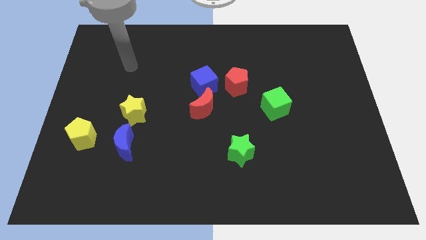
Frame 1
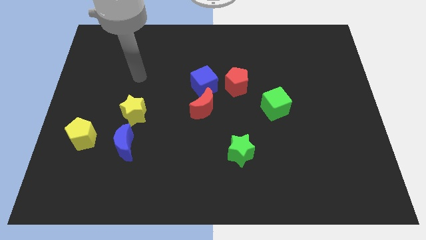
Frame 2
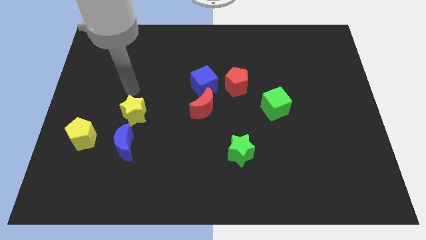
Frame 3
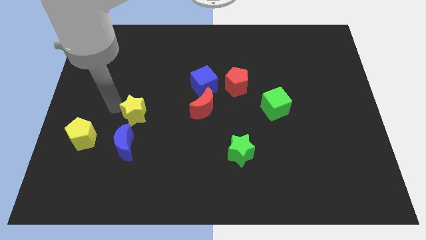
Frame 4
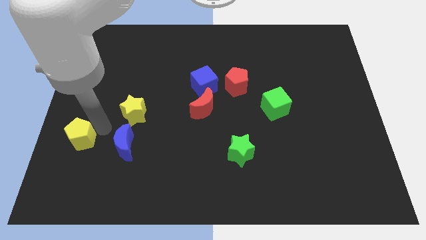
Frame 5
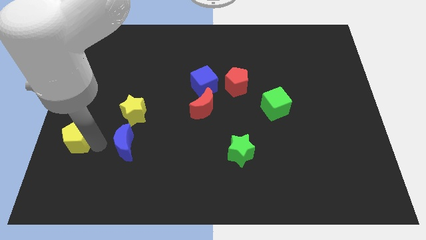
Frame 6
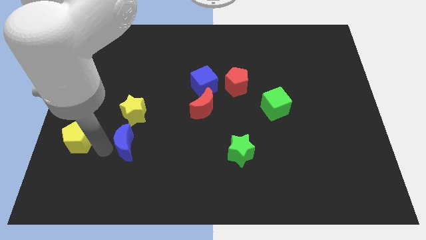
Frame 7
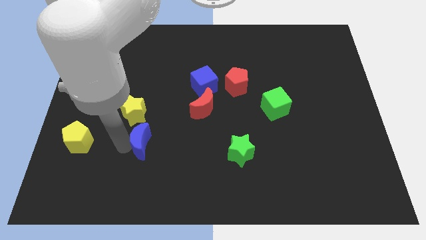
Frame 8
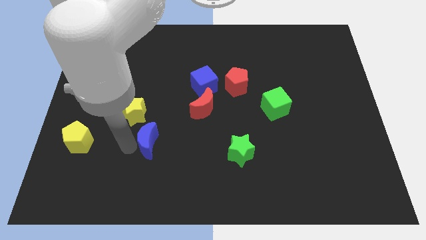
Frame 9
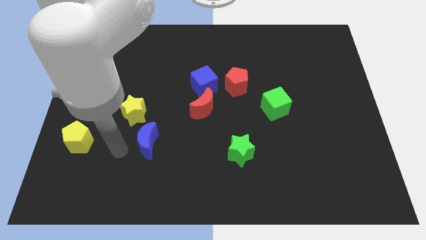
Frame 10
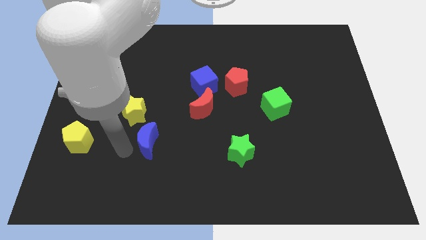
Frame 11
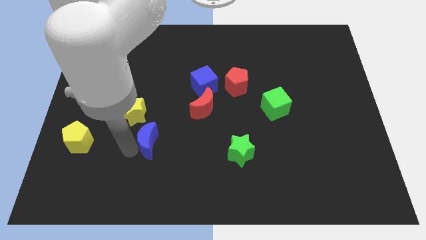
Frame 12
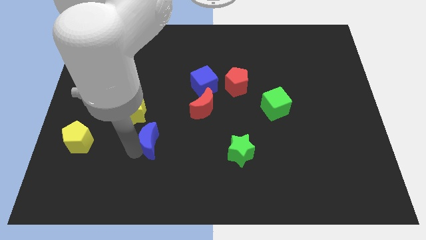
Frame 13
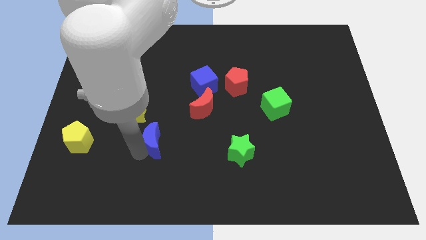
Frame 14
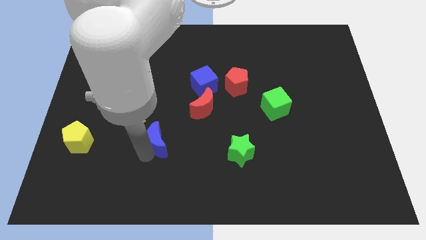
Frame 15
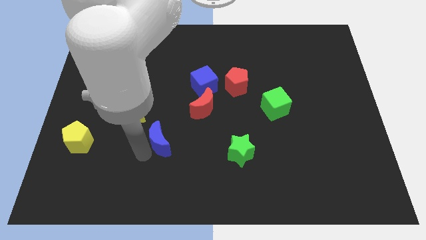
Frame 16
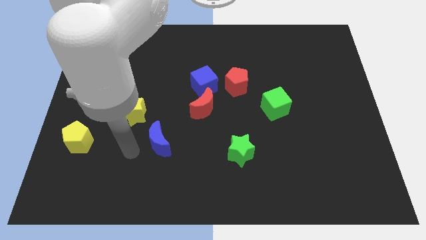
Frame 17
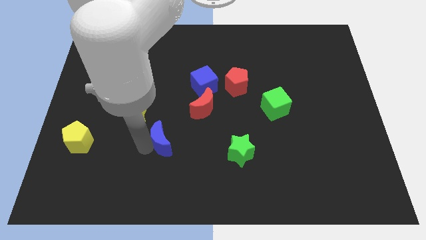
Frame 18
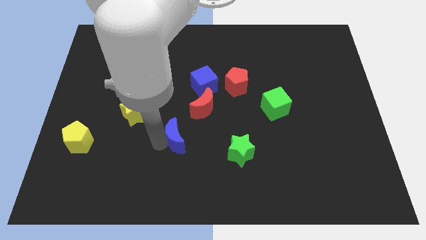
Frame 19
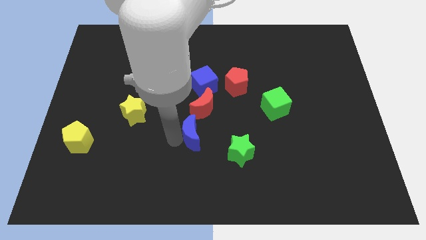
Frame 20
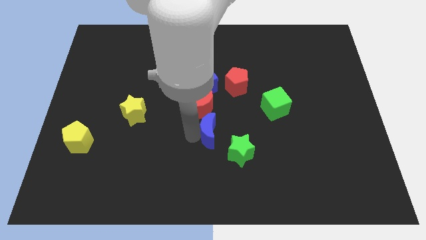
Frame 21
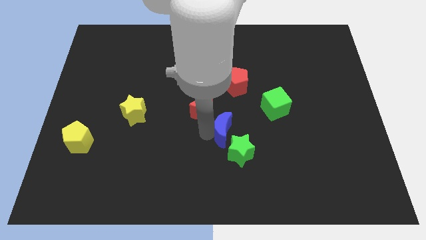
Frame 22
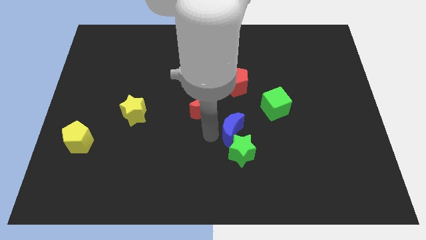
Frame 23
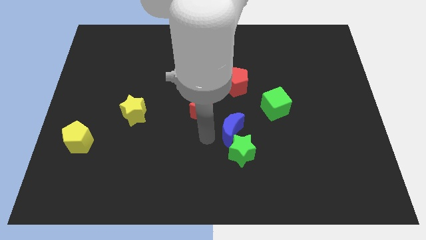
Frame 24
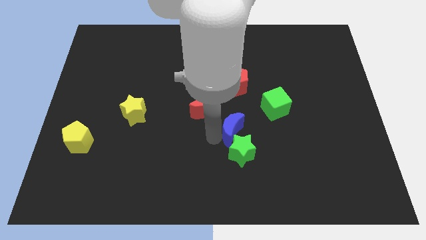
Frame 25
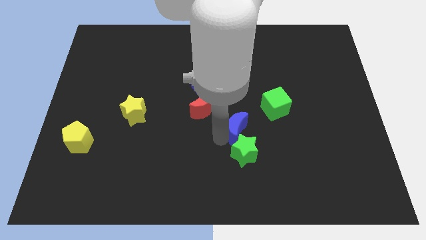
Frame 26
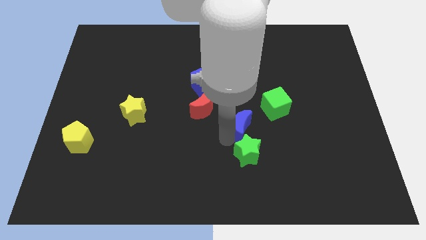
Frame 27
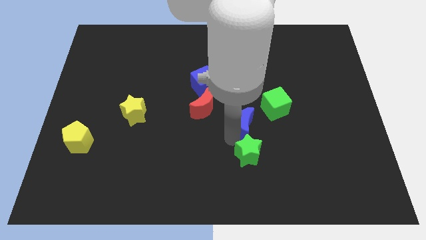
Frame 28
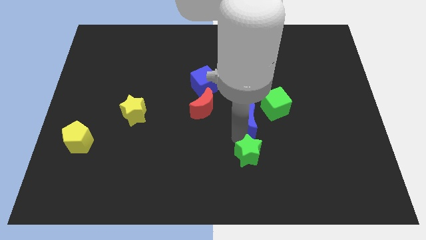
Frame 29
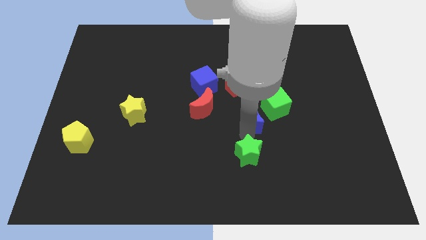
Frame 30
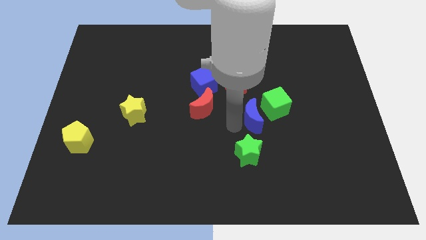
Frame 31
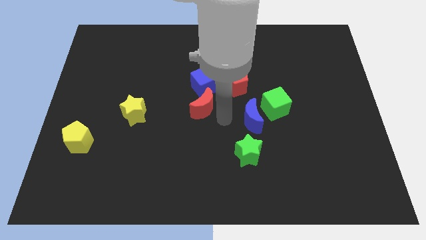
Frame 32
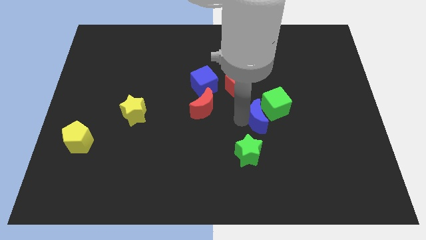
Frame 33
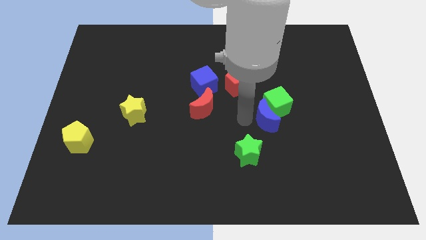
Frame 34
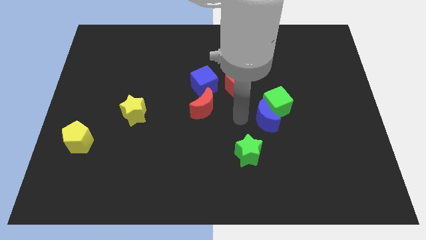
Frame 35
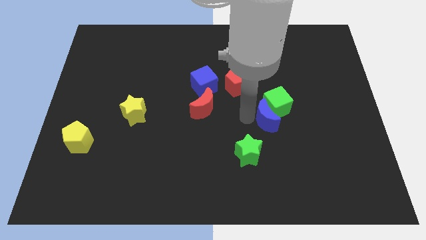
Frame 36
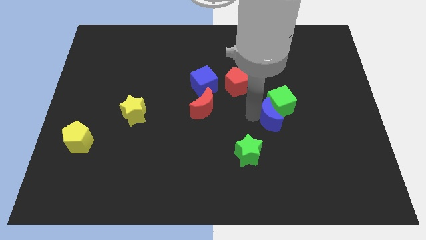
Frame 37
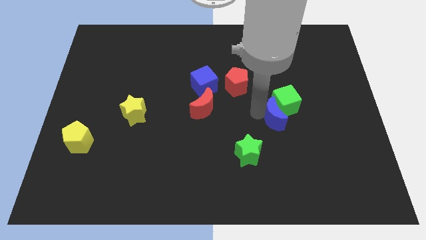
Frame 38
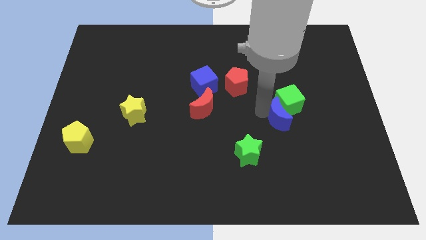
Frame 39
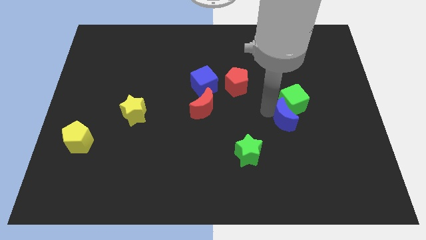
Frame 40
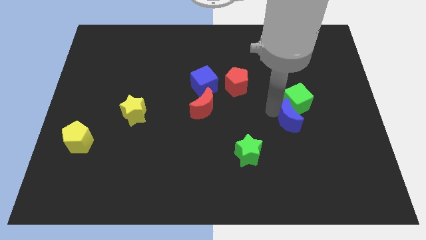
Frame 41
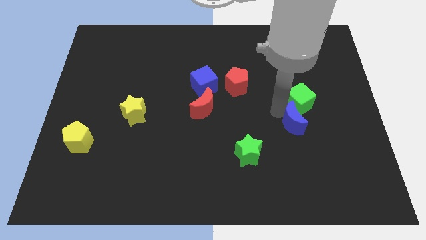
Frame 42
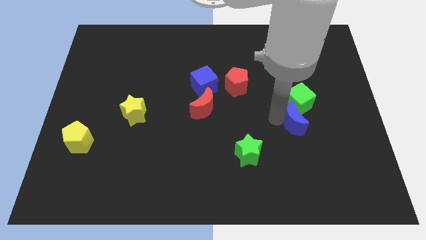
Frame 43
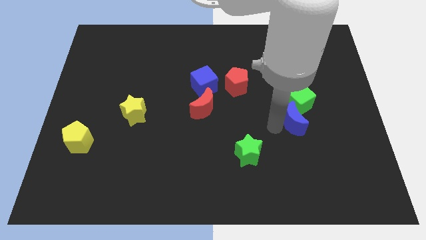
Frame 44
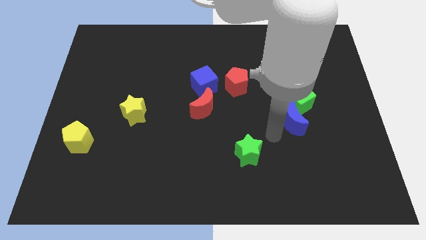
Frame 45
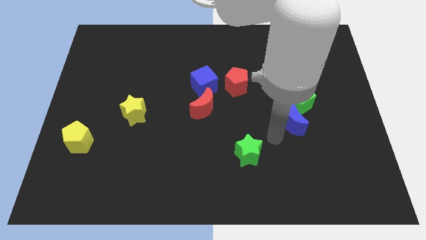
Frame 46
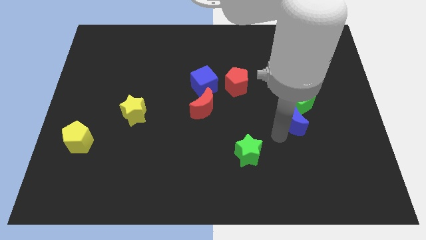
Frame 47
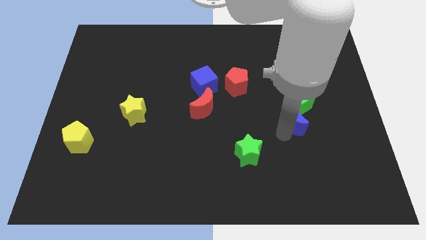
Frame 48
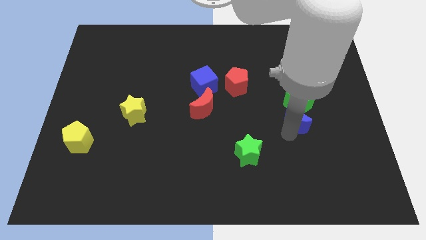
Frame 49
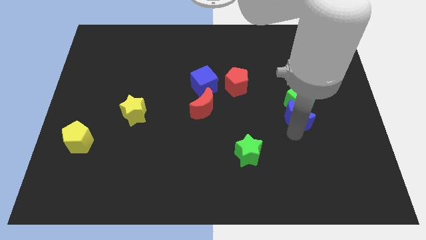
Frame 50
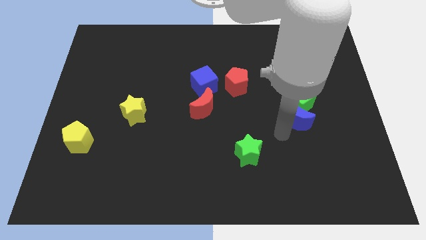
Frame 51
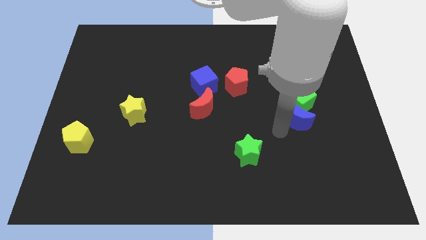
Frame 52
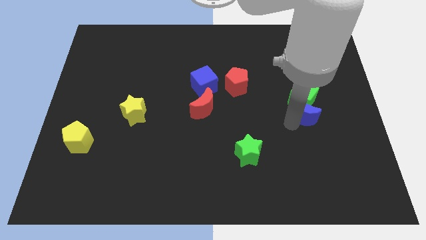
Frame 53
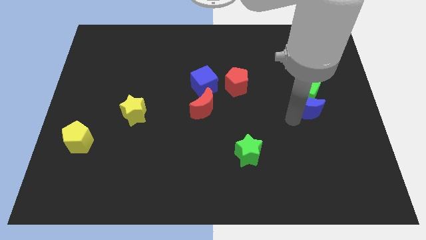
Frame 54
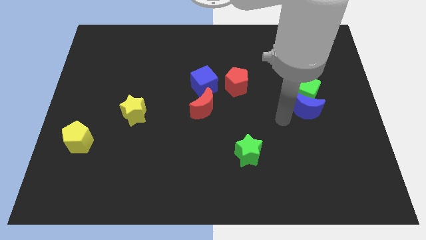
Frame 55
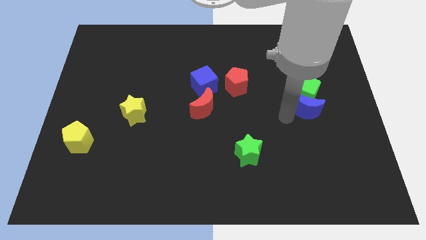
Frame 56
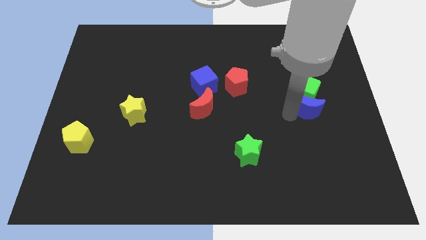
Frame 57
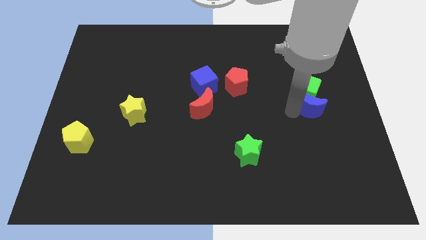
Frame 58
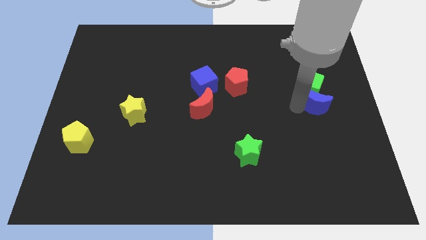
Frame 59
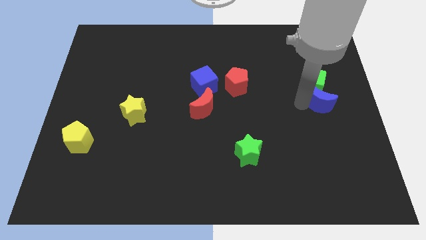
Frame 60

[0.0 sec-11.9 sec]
put the blue moon to the center right

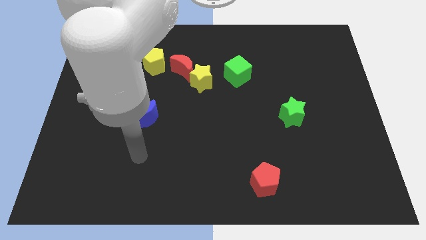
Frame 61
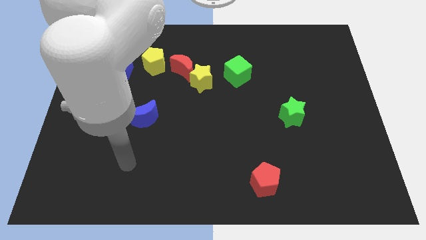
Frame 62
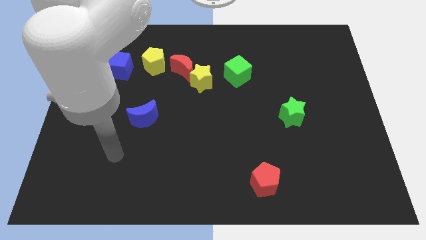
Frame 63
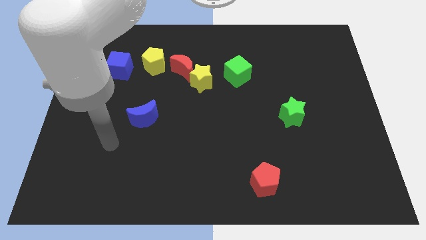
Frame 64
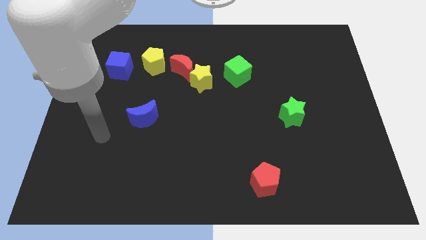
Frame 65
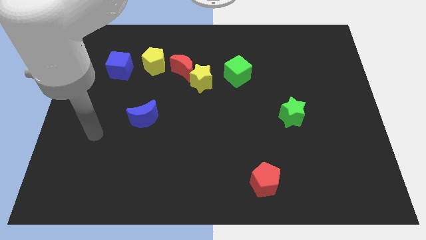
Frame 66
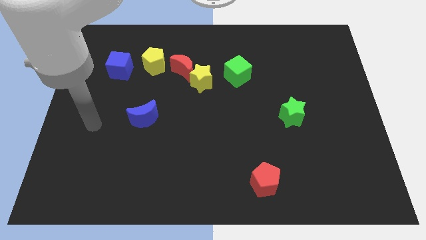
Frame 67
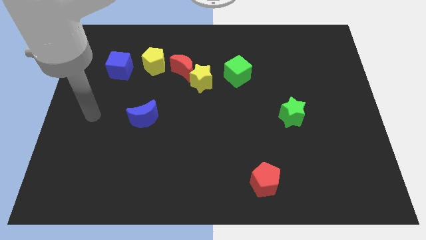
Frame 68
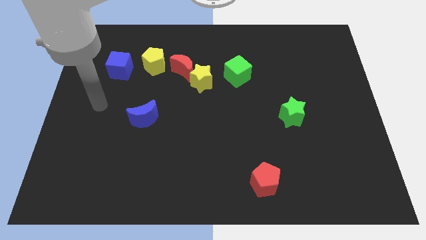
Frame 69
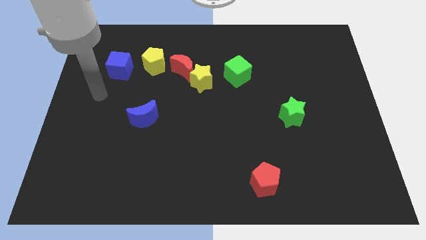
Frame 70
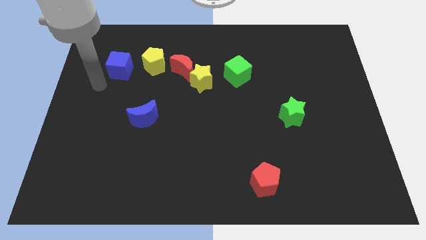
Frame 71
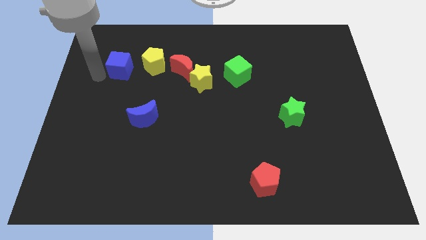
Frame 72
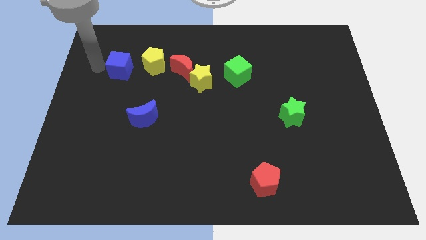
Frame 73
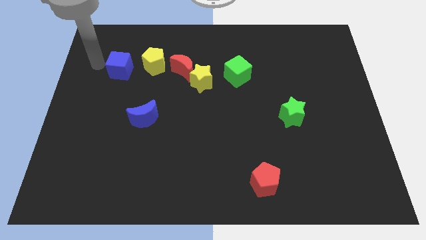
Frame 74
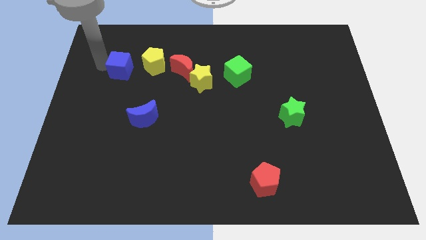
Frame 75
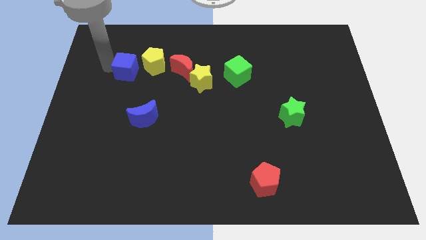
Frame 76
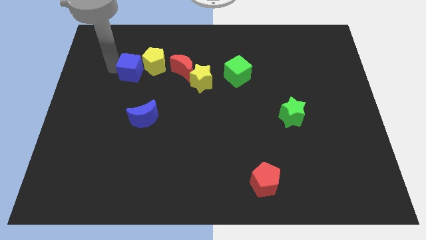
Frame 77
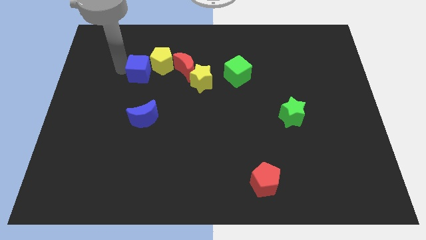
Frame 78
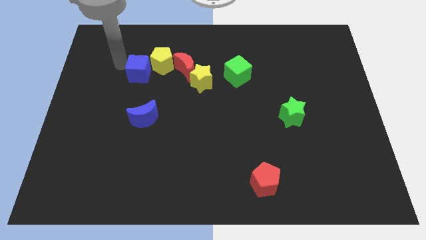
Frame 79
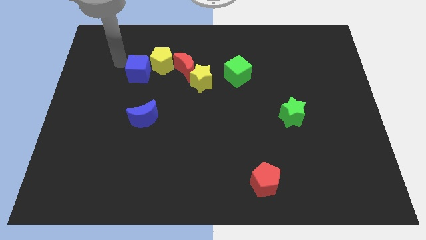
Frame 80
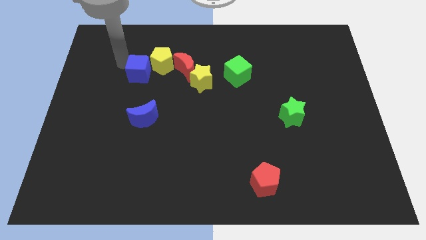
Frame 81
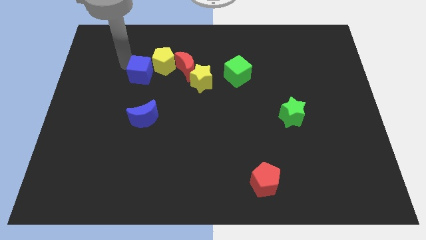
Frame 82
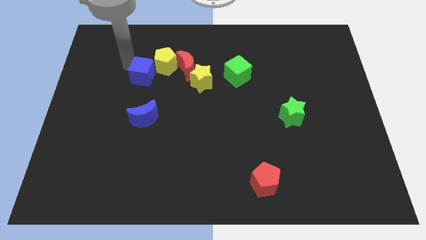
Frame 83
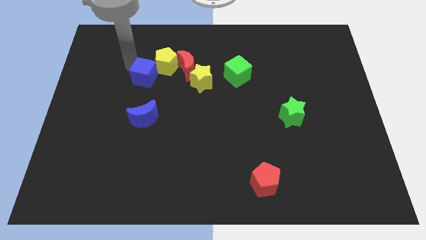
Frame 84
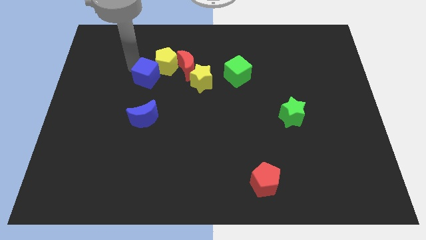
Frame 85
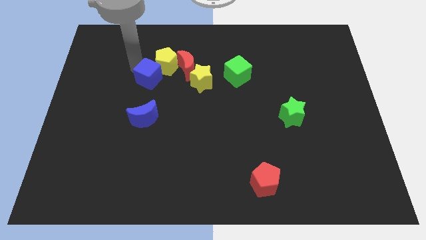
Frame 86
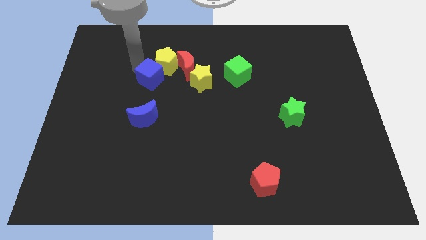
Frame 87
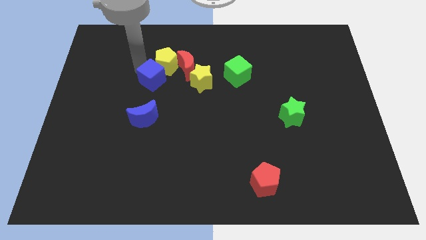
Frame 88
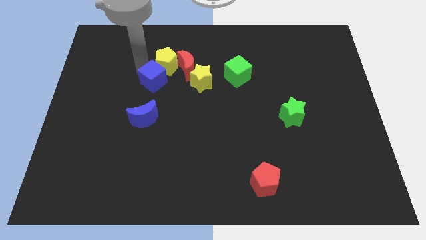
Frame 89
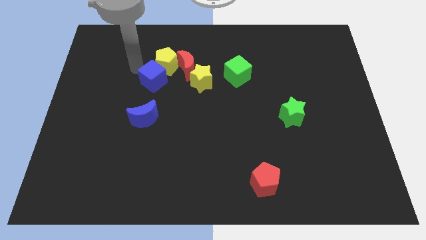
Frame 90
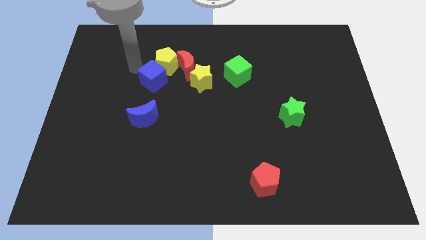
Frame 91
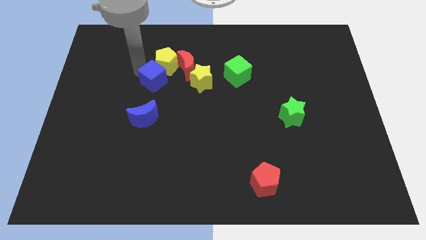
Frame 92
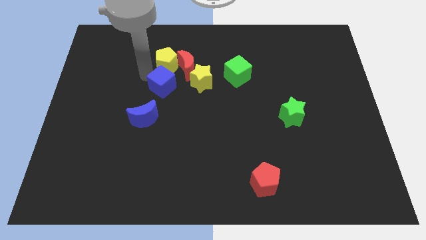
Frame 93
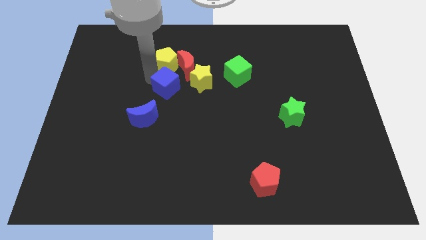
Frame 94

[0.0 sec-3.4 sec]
push the blue cube to the center of the board
